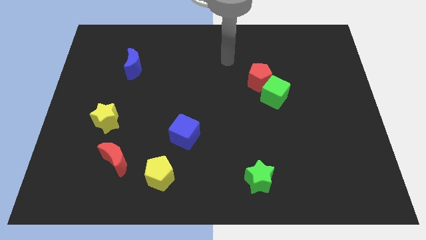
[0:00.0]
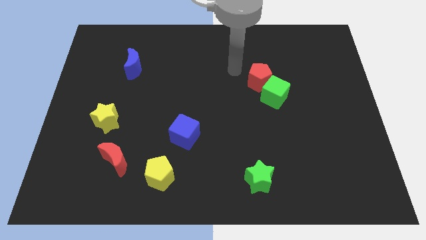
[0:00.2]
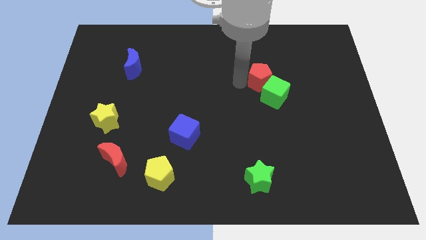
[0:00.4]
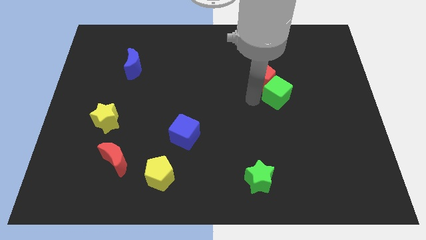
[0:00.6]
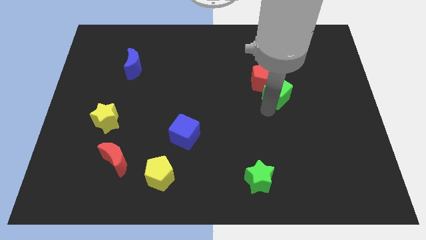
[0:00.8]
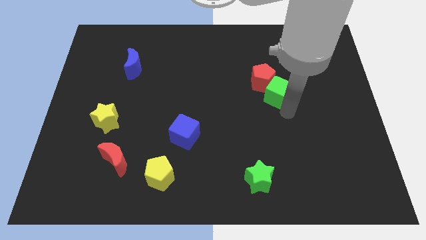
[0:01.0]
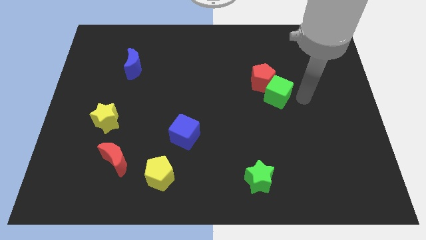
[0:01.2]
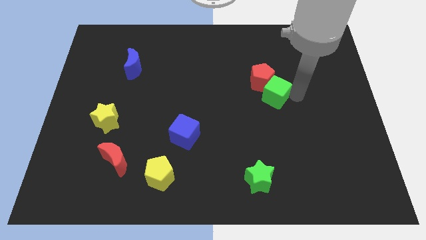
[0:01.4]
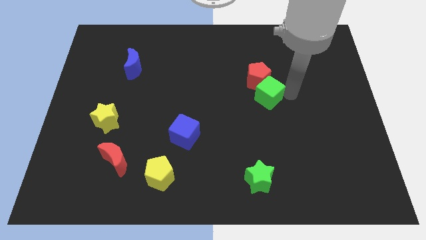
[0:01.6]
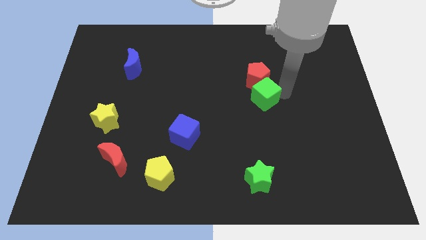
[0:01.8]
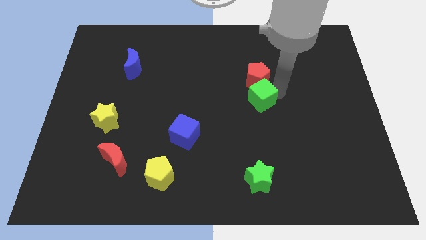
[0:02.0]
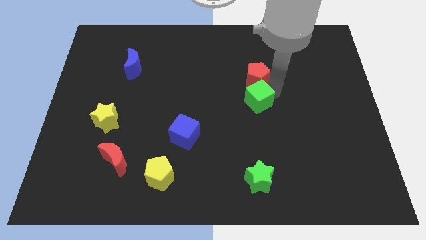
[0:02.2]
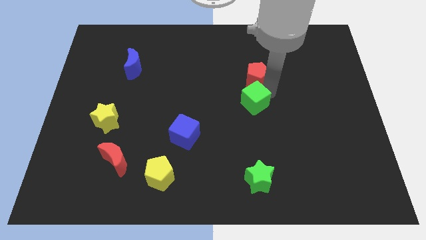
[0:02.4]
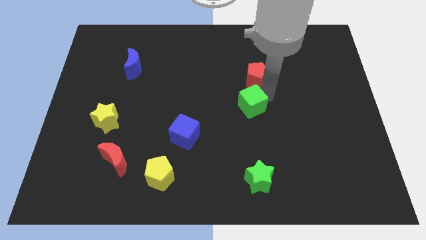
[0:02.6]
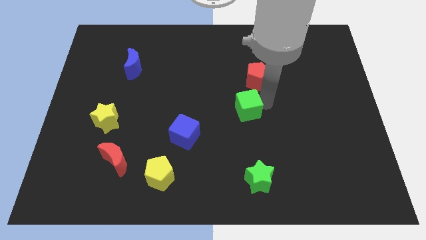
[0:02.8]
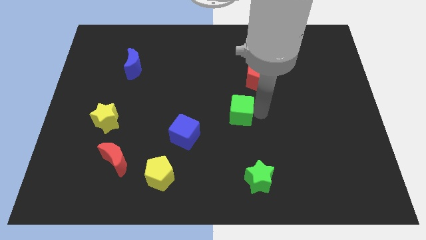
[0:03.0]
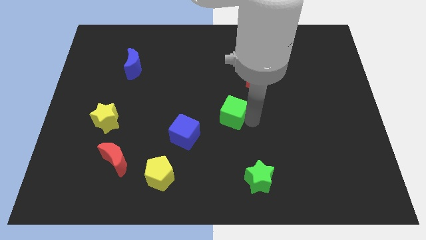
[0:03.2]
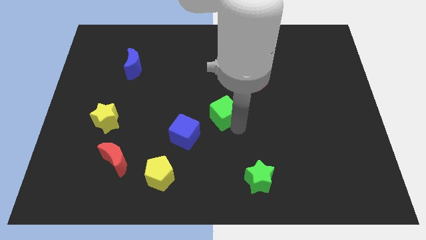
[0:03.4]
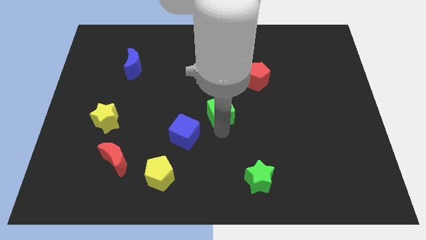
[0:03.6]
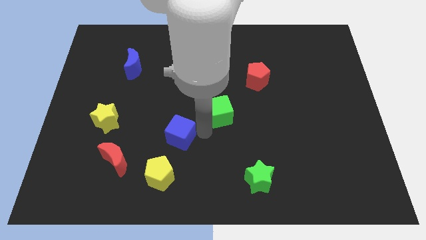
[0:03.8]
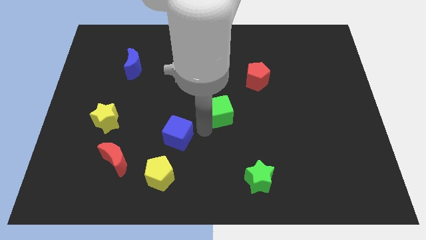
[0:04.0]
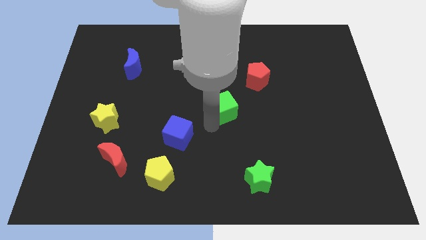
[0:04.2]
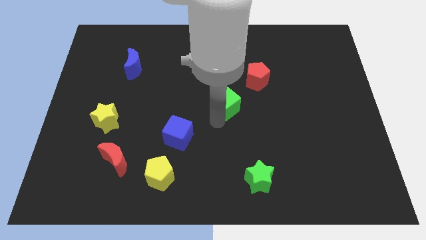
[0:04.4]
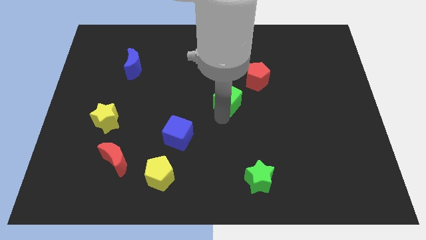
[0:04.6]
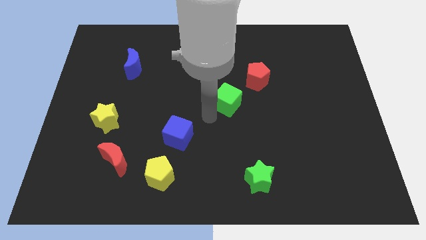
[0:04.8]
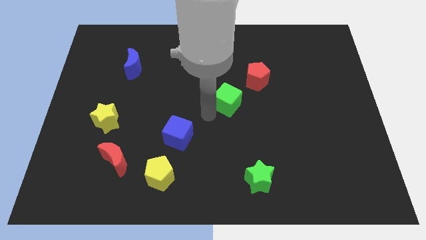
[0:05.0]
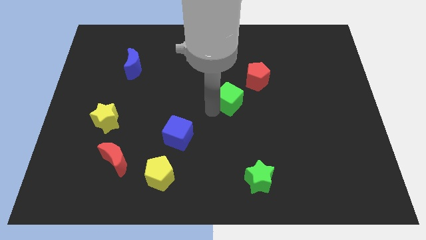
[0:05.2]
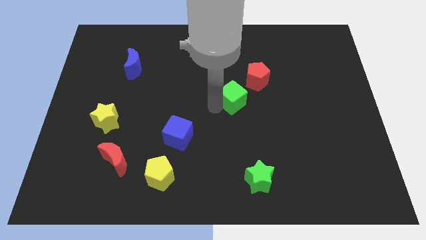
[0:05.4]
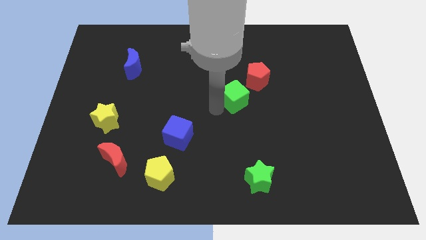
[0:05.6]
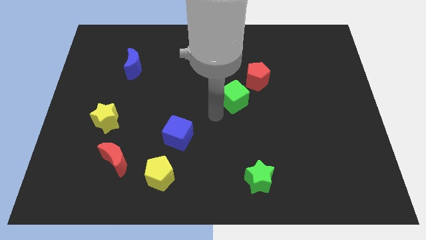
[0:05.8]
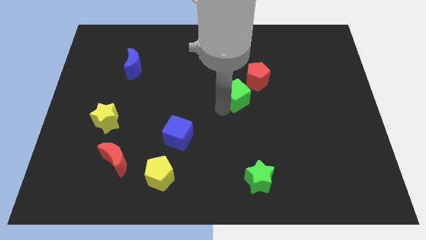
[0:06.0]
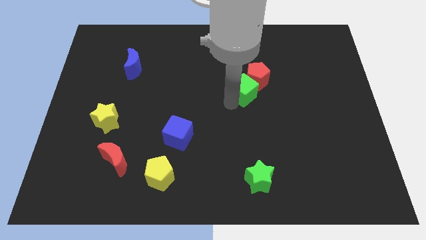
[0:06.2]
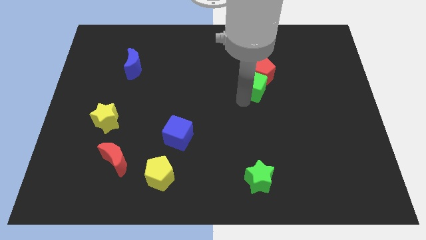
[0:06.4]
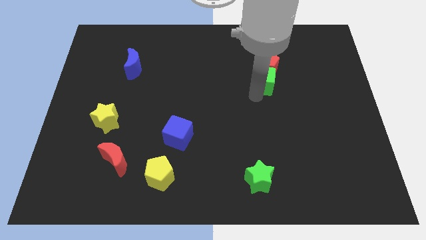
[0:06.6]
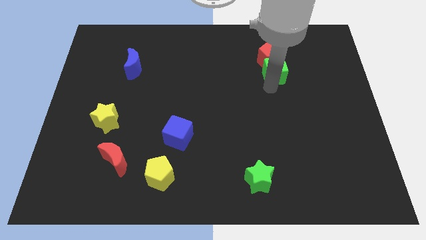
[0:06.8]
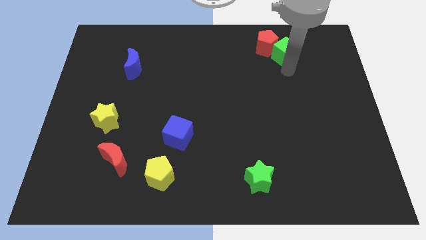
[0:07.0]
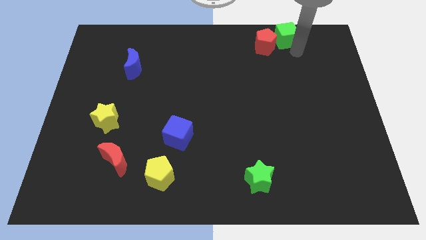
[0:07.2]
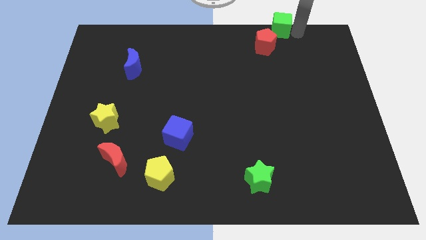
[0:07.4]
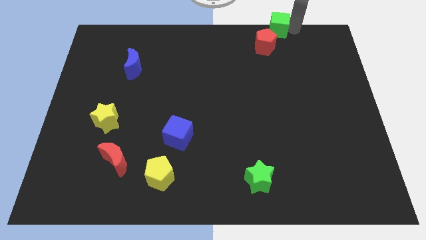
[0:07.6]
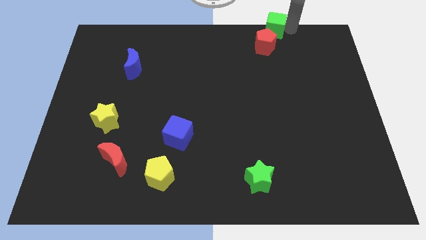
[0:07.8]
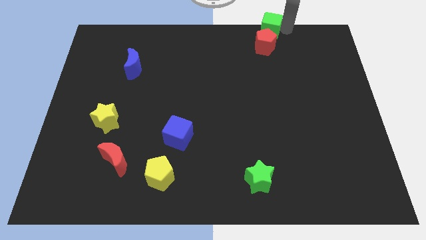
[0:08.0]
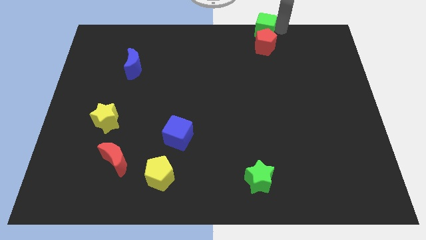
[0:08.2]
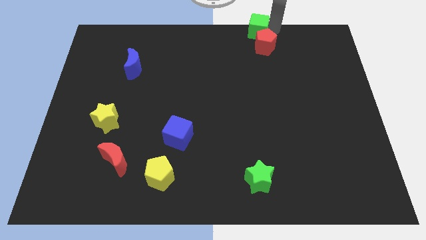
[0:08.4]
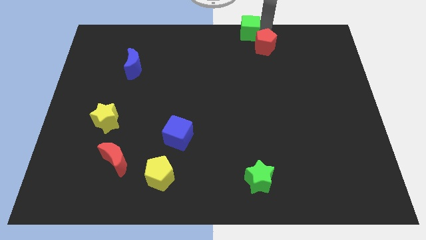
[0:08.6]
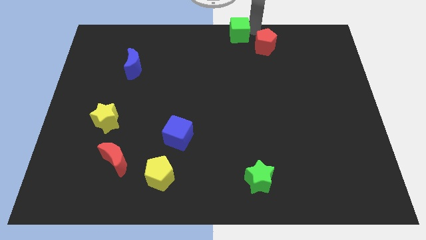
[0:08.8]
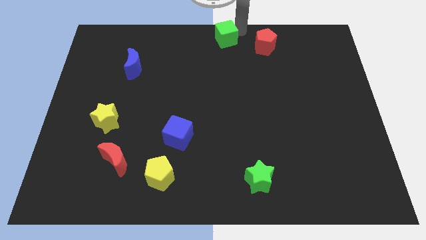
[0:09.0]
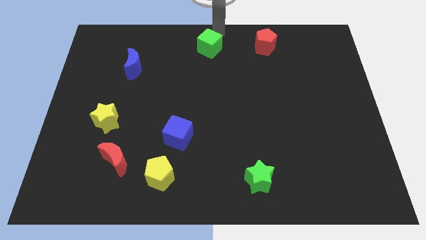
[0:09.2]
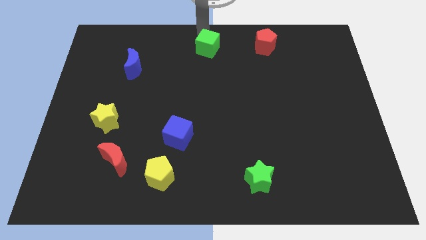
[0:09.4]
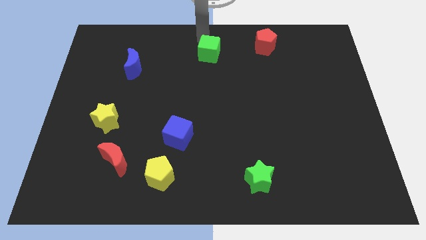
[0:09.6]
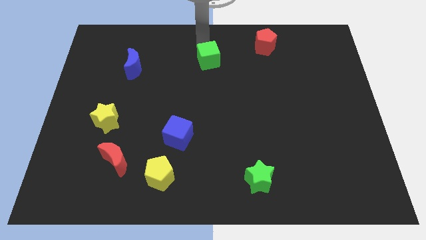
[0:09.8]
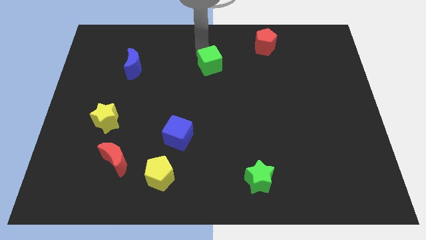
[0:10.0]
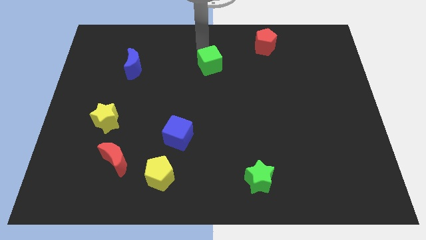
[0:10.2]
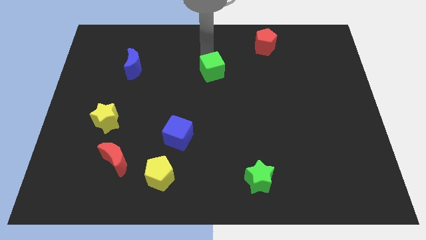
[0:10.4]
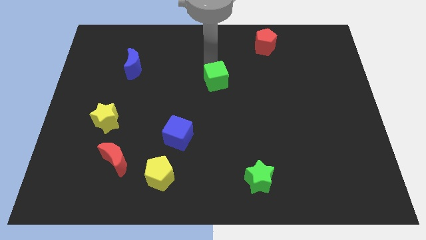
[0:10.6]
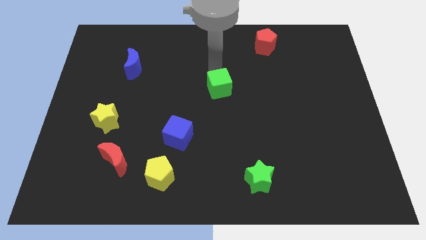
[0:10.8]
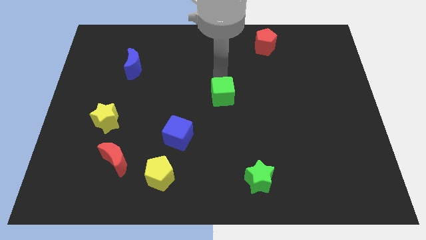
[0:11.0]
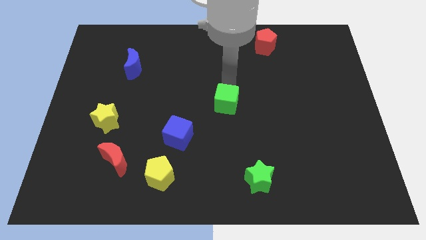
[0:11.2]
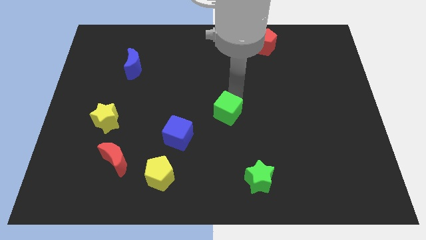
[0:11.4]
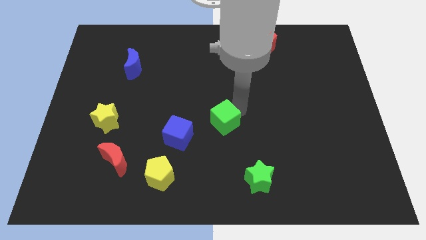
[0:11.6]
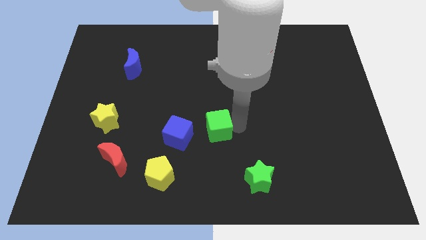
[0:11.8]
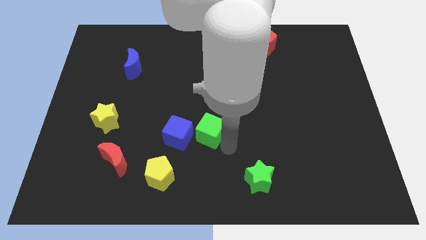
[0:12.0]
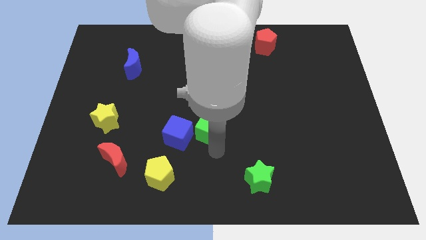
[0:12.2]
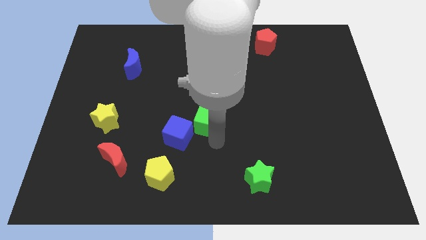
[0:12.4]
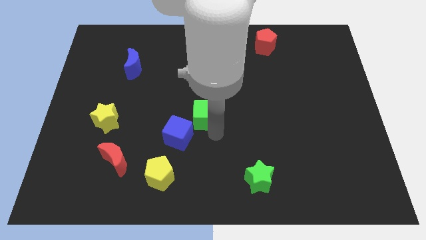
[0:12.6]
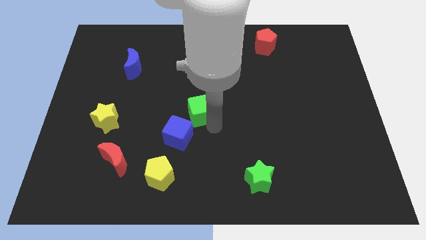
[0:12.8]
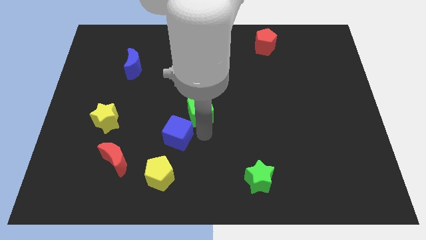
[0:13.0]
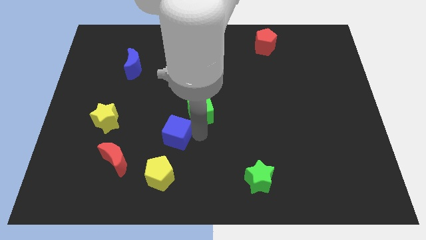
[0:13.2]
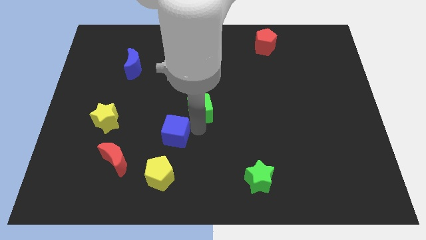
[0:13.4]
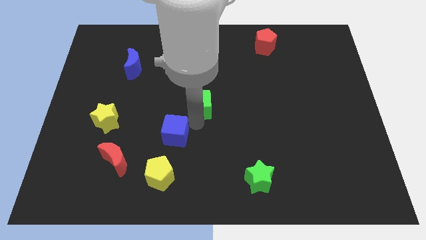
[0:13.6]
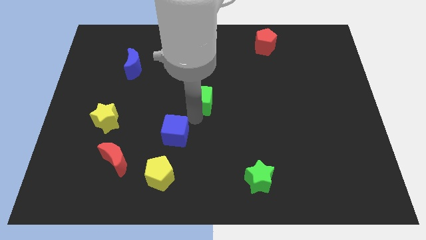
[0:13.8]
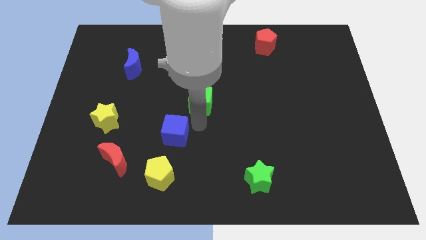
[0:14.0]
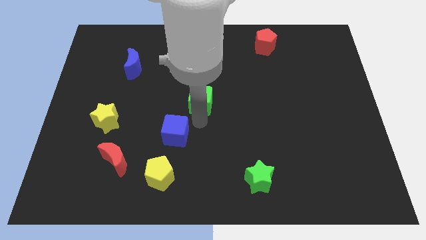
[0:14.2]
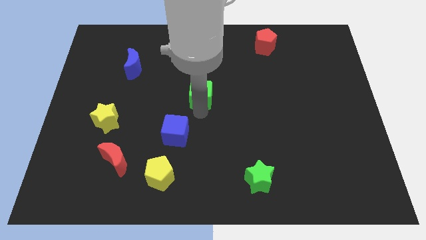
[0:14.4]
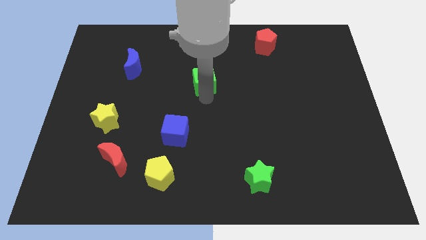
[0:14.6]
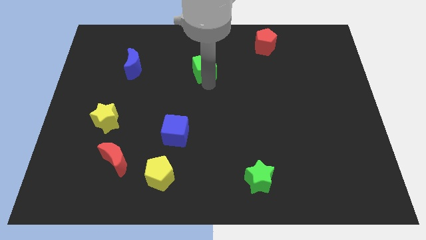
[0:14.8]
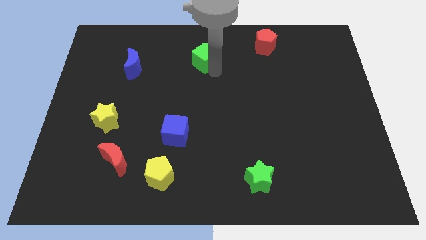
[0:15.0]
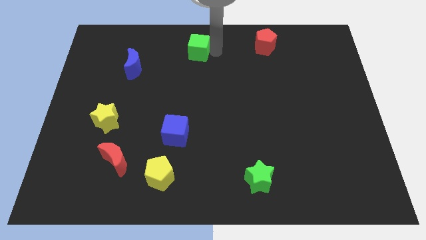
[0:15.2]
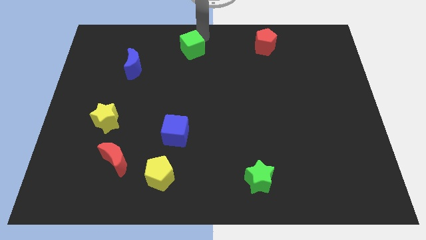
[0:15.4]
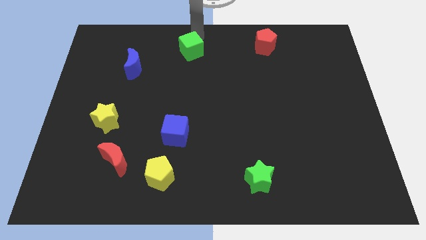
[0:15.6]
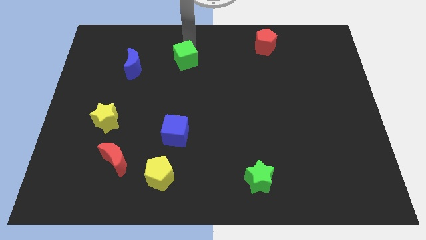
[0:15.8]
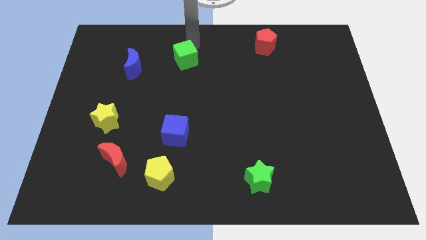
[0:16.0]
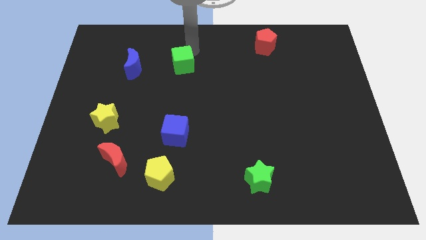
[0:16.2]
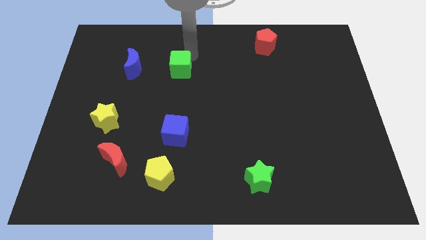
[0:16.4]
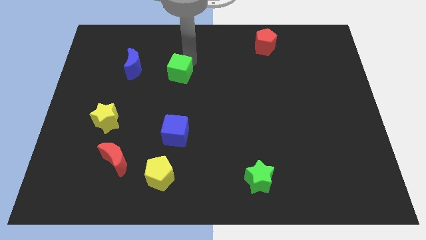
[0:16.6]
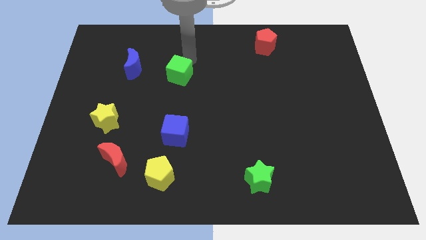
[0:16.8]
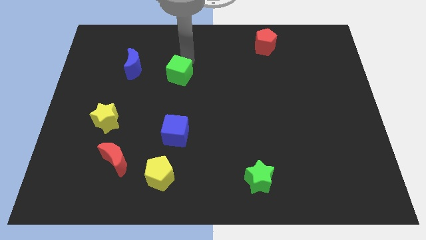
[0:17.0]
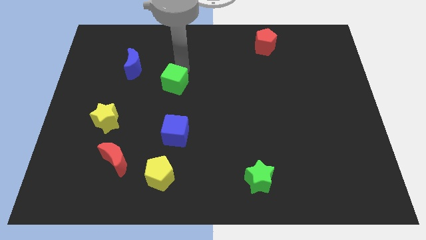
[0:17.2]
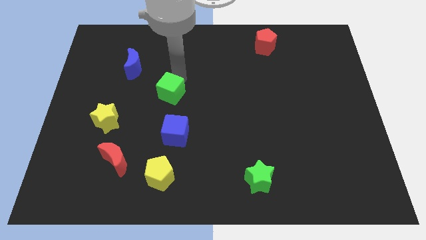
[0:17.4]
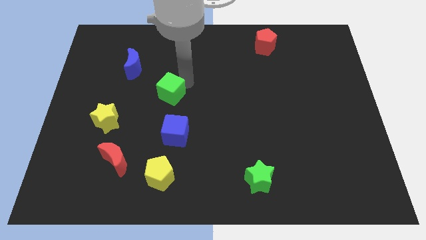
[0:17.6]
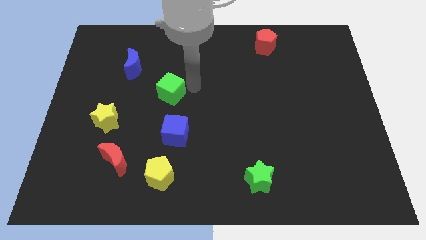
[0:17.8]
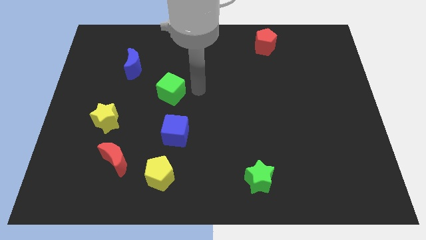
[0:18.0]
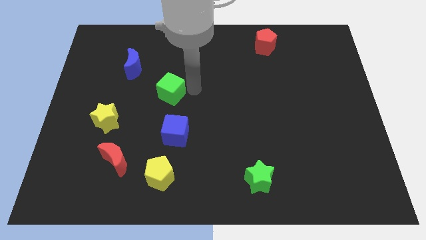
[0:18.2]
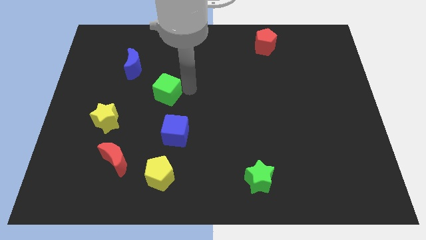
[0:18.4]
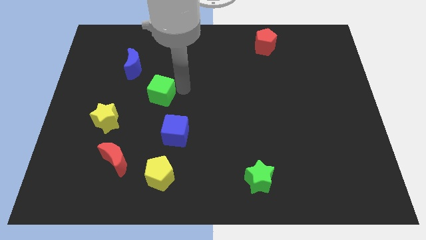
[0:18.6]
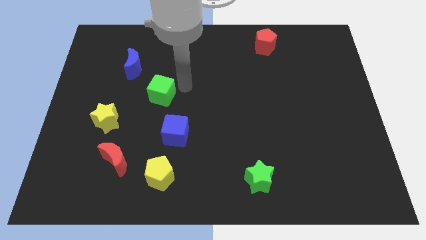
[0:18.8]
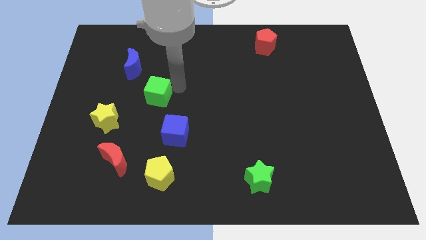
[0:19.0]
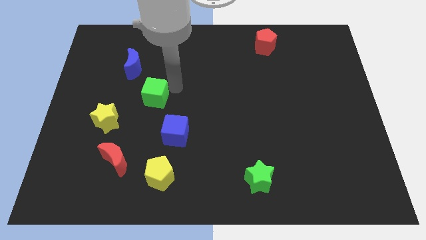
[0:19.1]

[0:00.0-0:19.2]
push the green cube to the top right side of the yellow star
